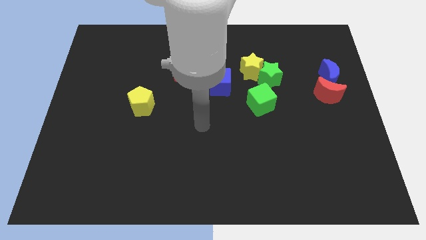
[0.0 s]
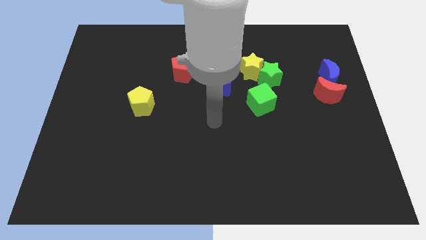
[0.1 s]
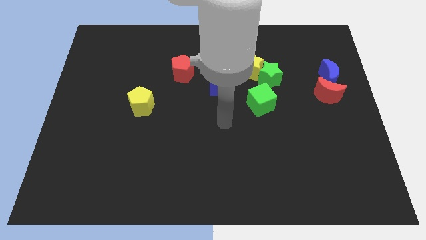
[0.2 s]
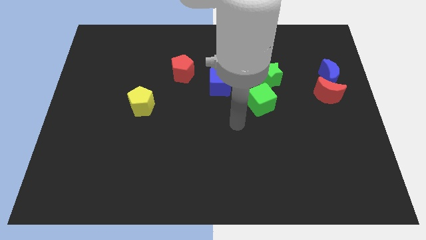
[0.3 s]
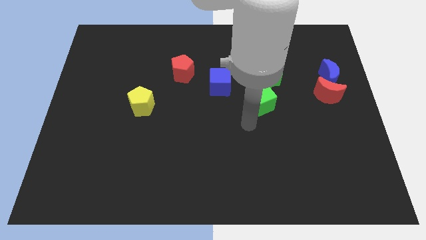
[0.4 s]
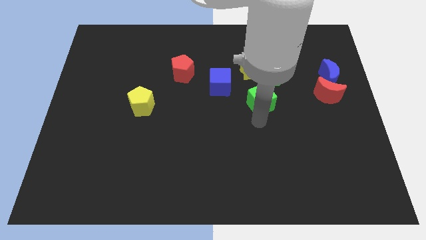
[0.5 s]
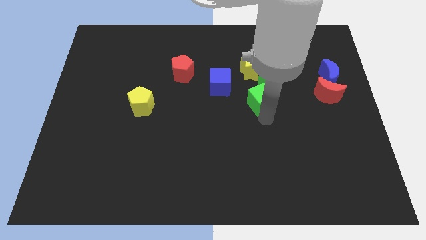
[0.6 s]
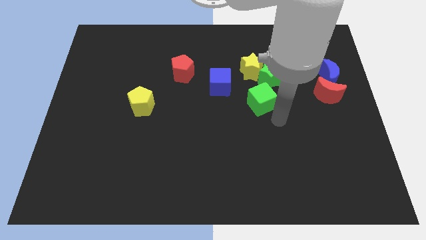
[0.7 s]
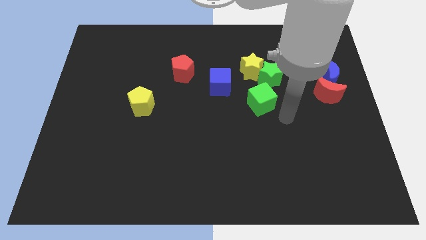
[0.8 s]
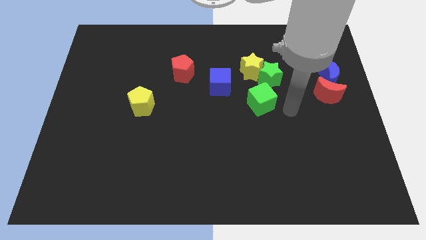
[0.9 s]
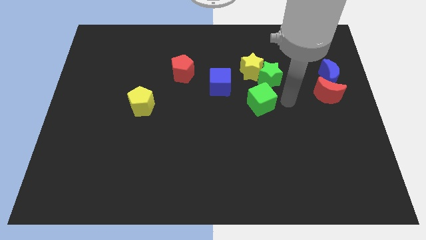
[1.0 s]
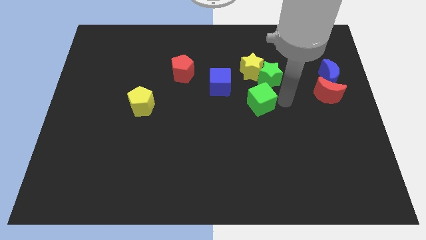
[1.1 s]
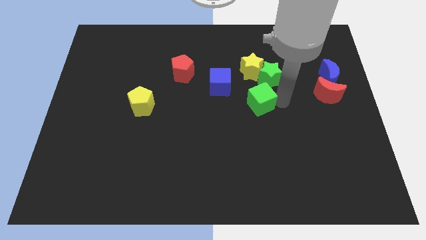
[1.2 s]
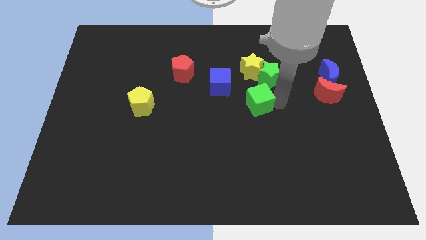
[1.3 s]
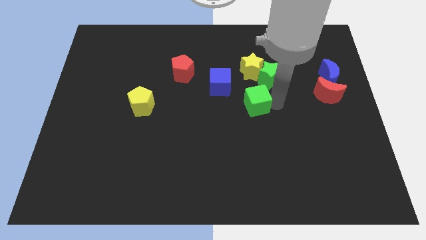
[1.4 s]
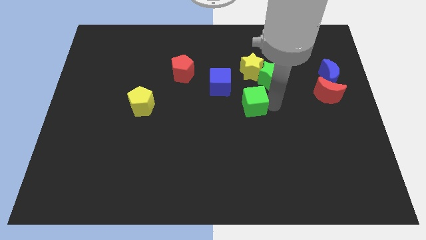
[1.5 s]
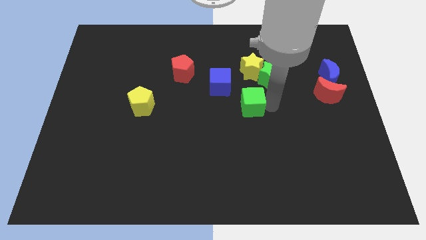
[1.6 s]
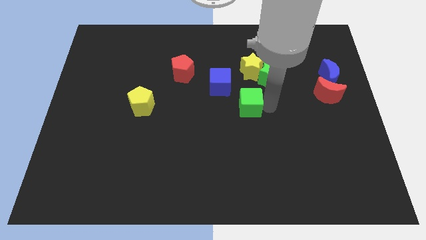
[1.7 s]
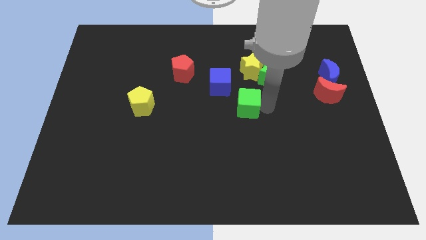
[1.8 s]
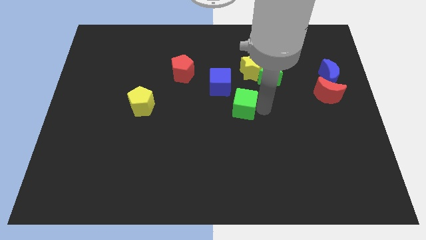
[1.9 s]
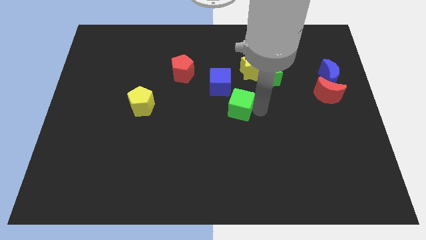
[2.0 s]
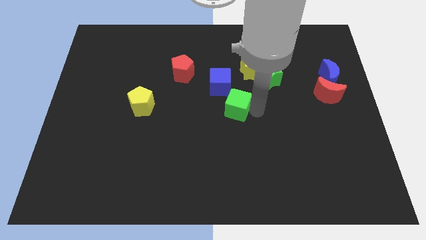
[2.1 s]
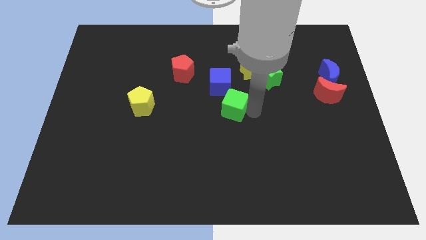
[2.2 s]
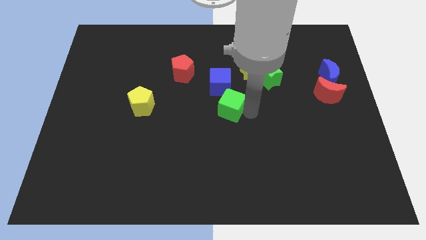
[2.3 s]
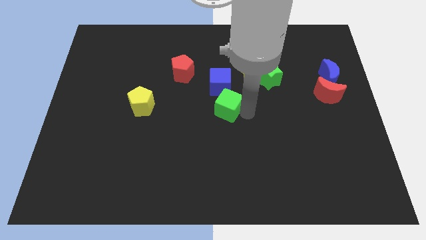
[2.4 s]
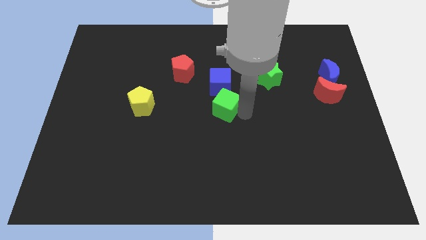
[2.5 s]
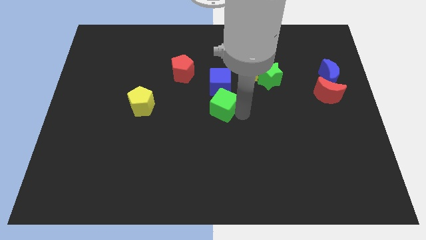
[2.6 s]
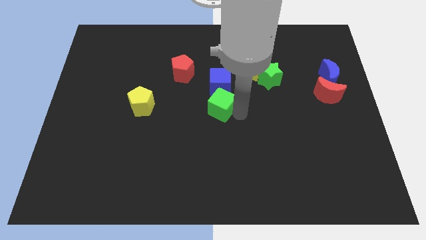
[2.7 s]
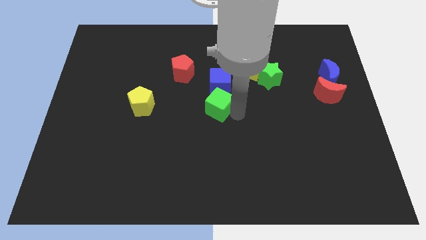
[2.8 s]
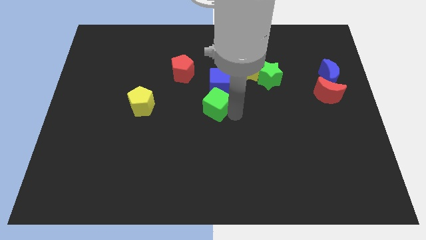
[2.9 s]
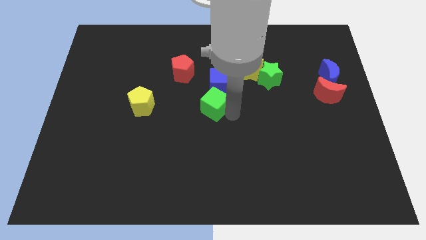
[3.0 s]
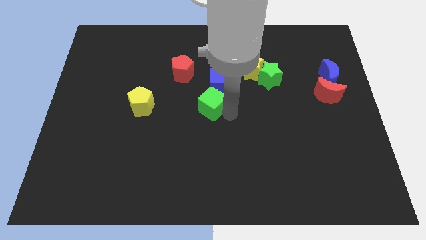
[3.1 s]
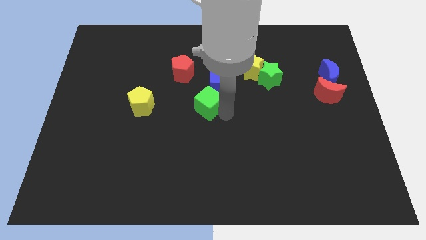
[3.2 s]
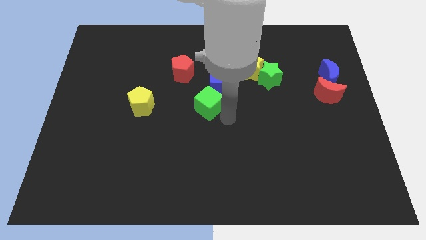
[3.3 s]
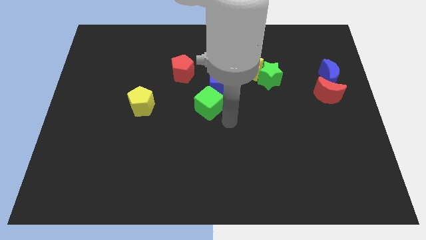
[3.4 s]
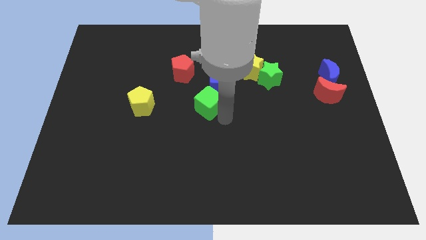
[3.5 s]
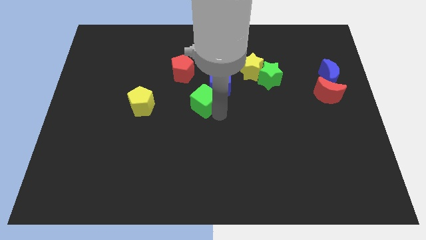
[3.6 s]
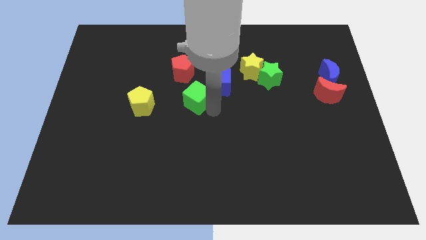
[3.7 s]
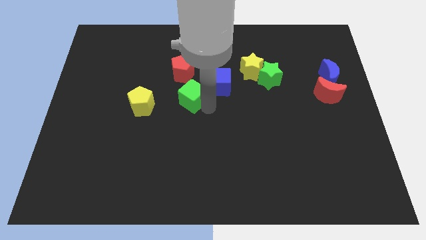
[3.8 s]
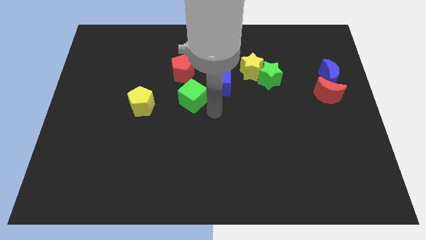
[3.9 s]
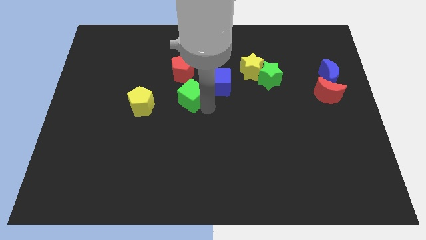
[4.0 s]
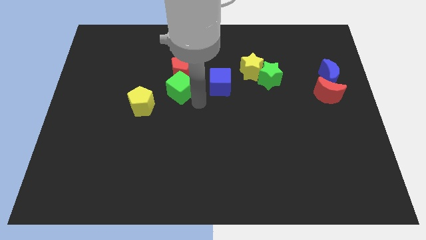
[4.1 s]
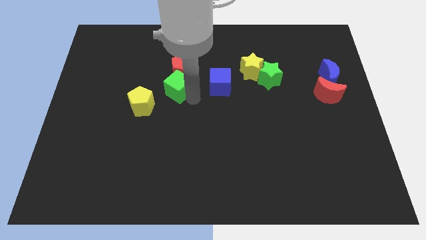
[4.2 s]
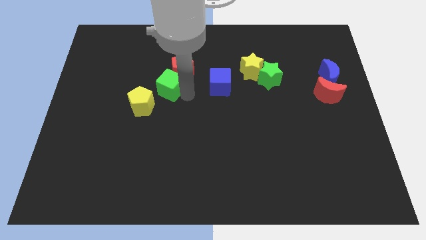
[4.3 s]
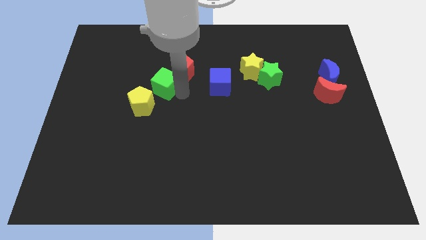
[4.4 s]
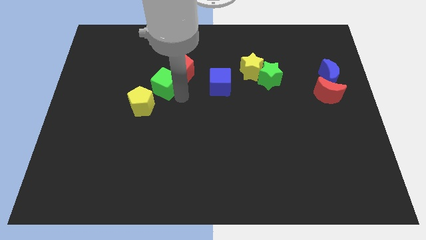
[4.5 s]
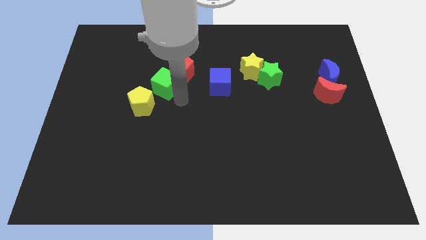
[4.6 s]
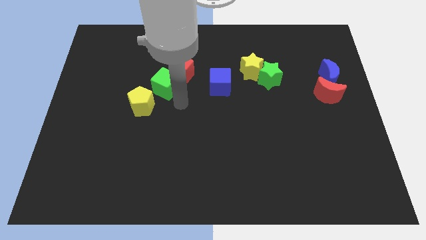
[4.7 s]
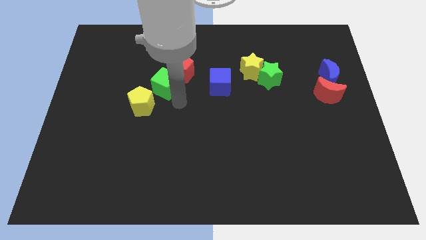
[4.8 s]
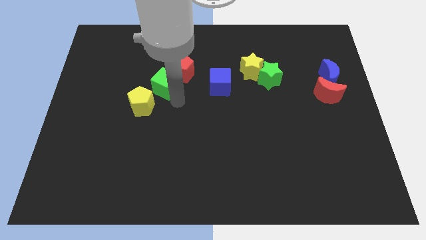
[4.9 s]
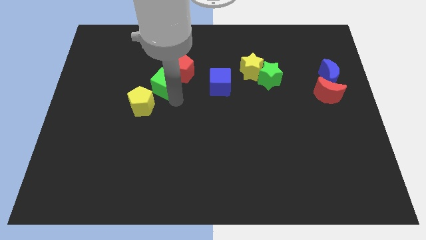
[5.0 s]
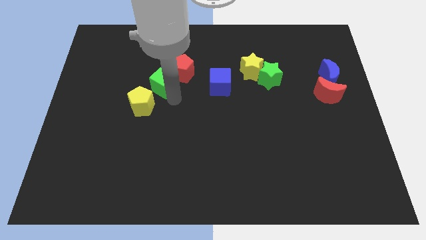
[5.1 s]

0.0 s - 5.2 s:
move the green cube to the left of the red pentagon

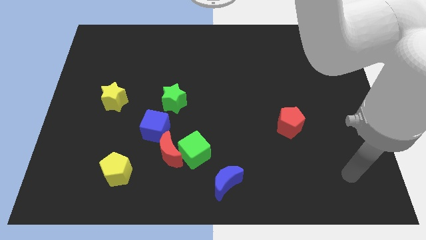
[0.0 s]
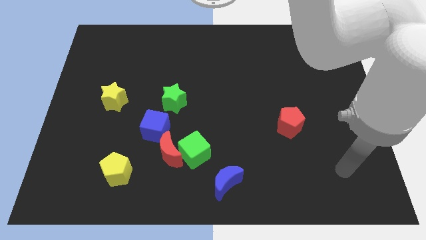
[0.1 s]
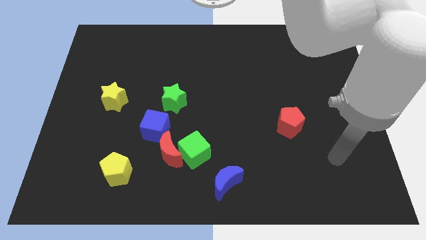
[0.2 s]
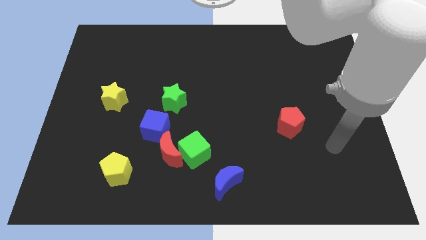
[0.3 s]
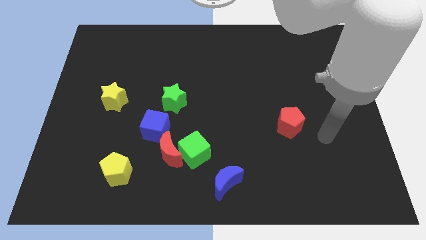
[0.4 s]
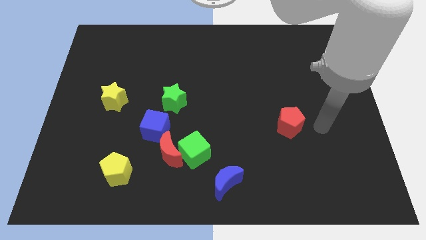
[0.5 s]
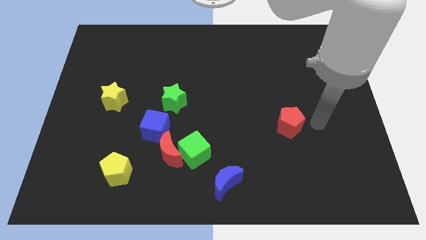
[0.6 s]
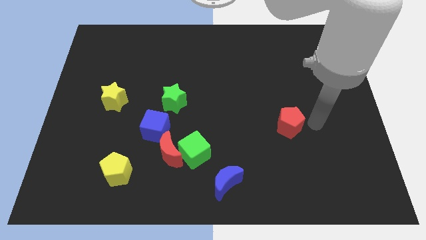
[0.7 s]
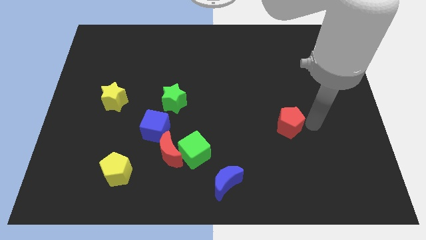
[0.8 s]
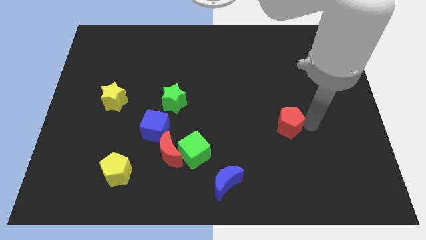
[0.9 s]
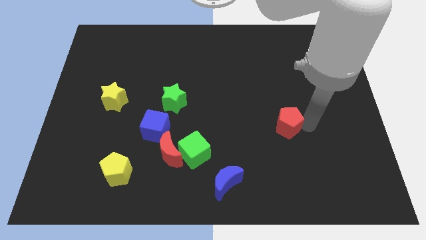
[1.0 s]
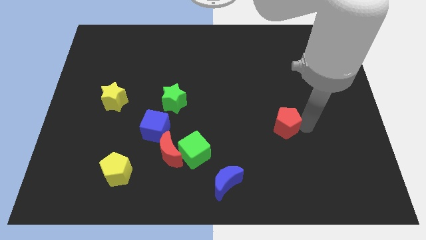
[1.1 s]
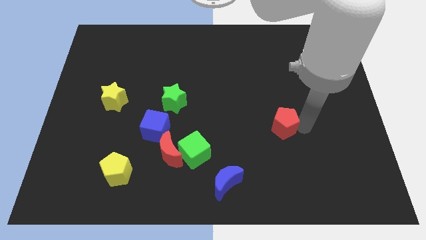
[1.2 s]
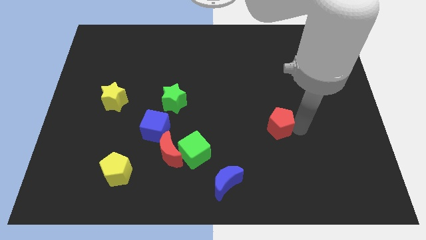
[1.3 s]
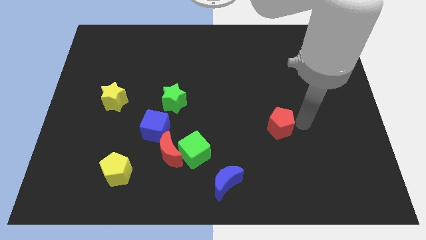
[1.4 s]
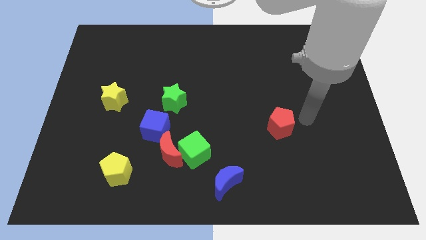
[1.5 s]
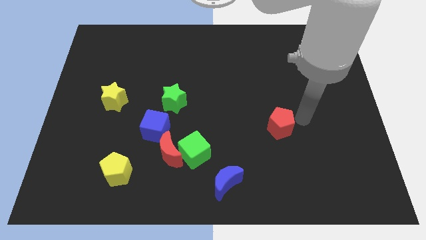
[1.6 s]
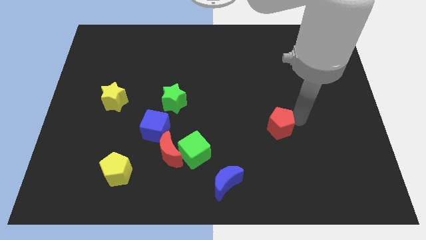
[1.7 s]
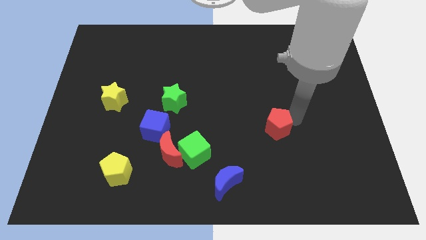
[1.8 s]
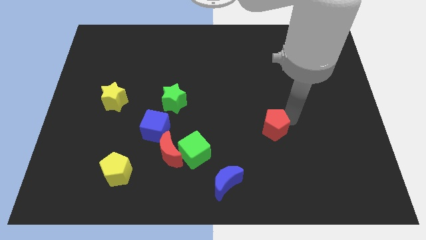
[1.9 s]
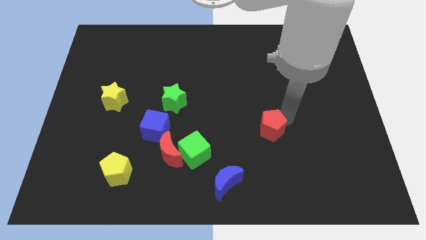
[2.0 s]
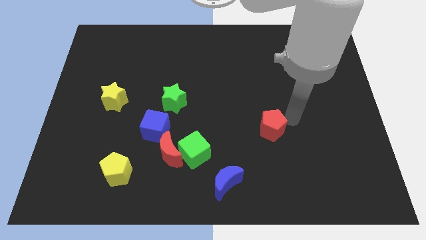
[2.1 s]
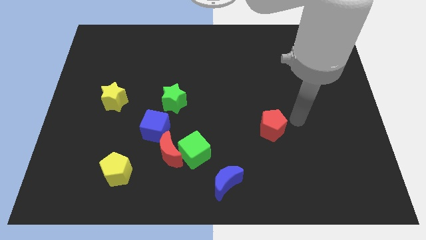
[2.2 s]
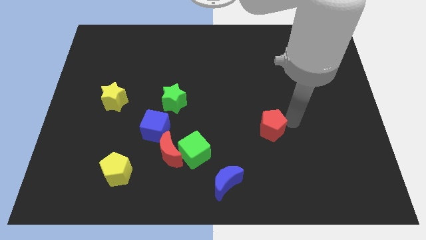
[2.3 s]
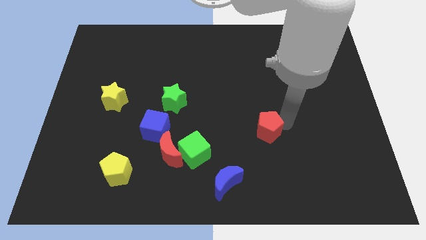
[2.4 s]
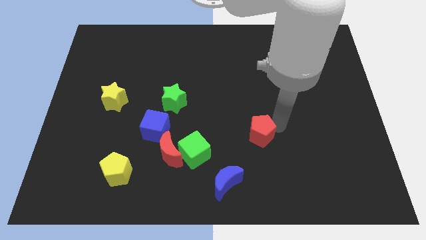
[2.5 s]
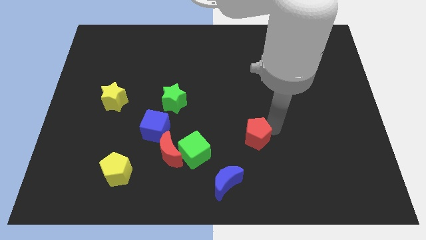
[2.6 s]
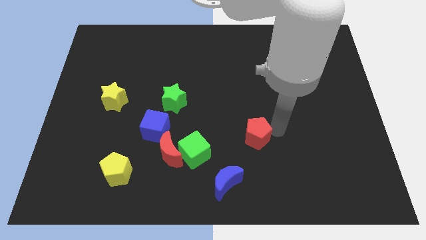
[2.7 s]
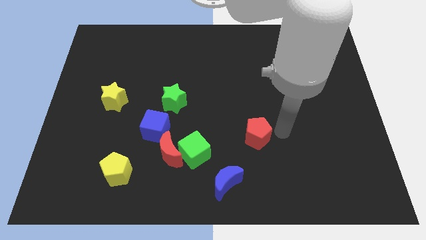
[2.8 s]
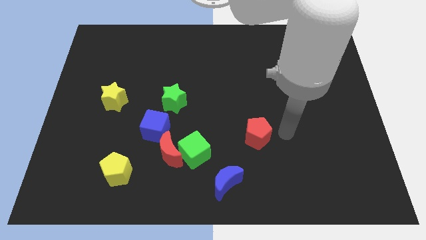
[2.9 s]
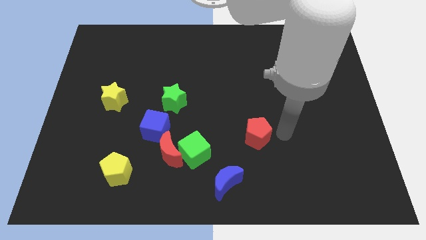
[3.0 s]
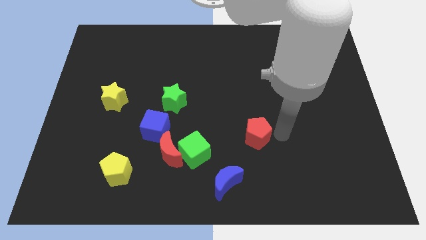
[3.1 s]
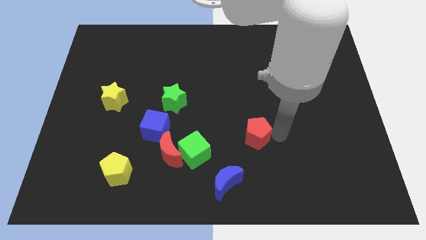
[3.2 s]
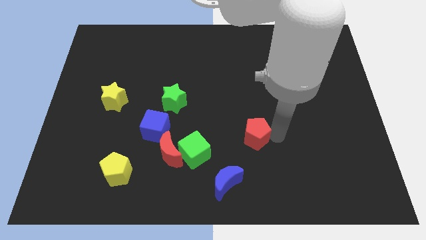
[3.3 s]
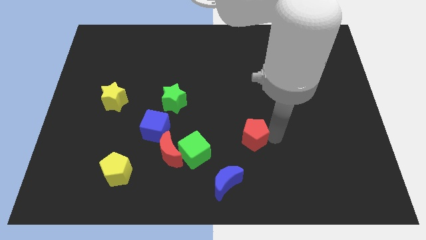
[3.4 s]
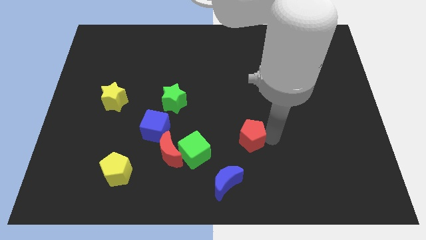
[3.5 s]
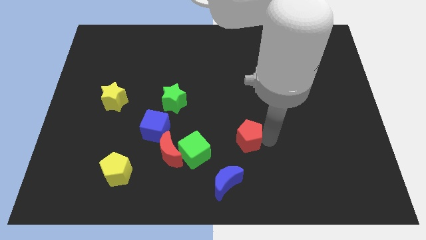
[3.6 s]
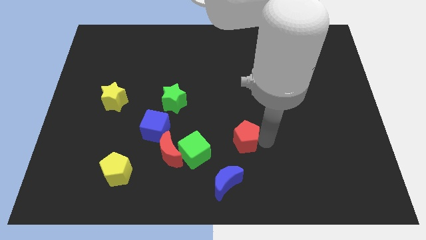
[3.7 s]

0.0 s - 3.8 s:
put the red pentagon above the blue moon
